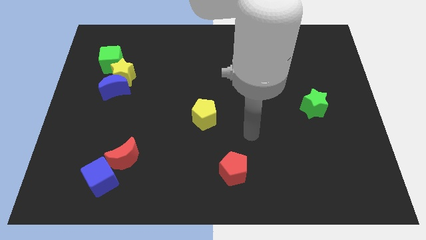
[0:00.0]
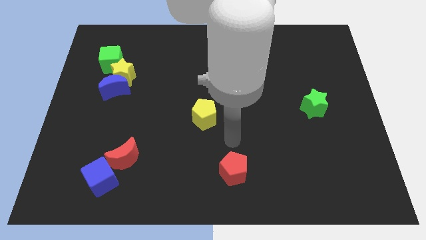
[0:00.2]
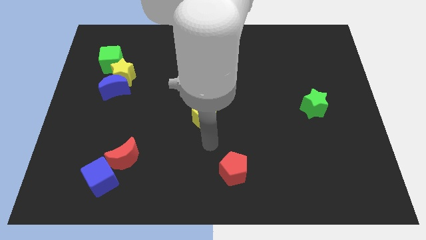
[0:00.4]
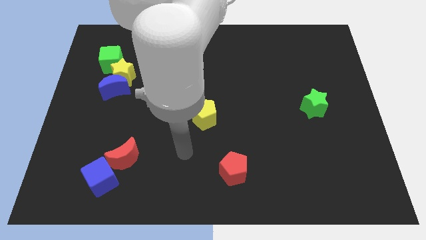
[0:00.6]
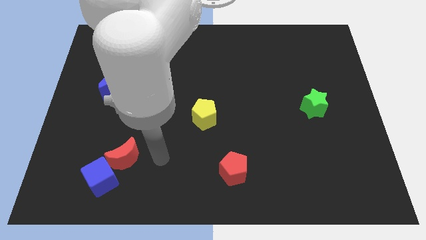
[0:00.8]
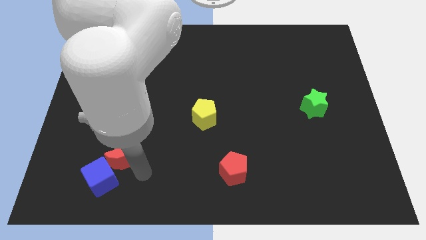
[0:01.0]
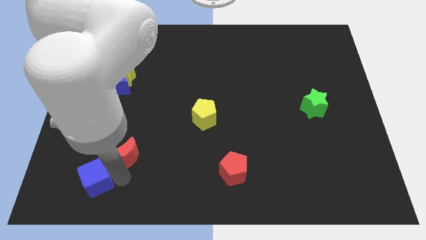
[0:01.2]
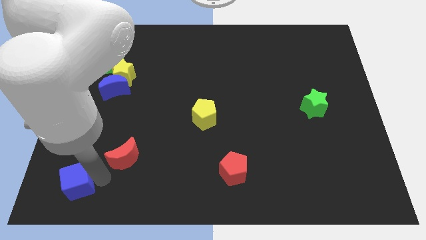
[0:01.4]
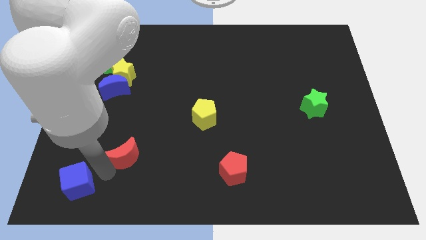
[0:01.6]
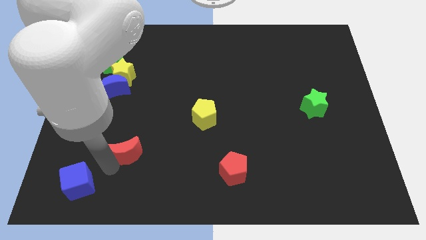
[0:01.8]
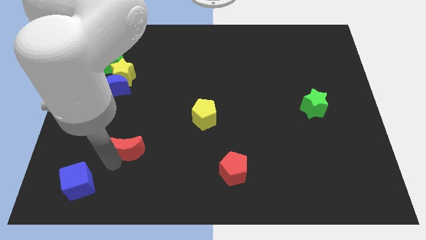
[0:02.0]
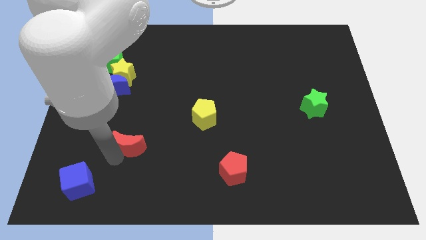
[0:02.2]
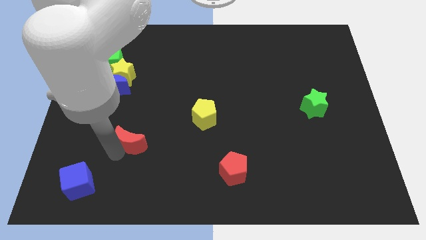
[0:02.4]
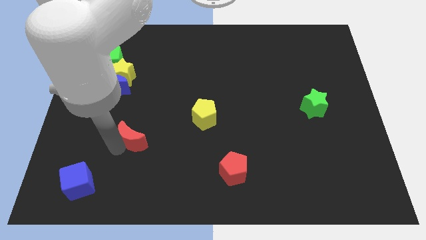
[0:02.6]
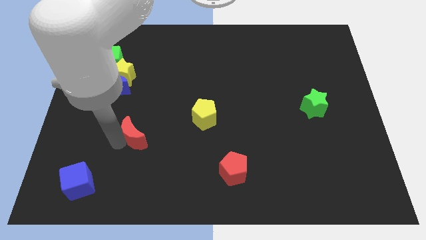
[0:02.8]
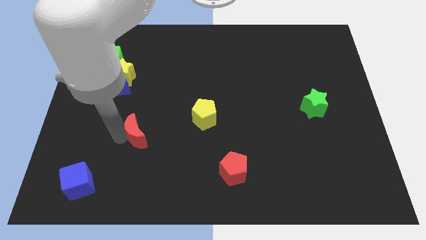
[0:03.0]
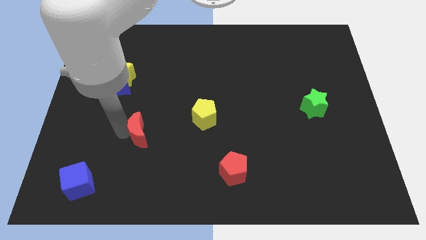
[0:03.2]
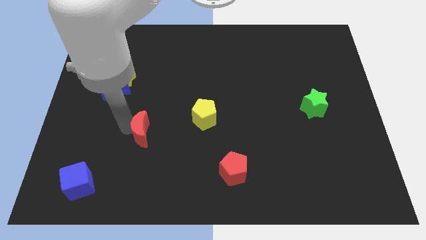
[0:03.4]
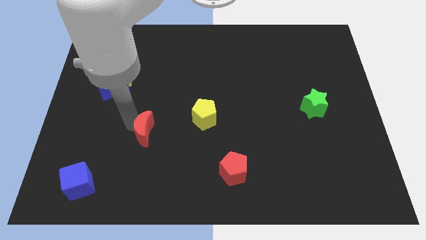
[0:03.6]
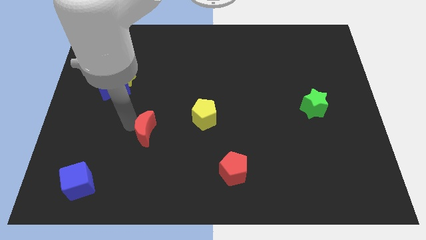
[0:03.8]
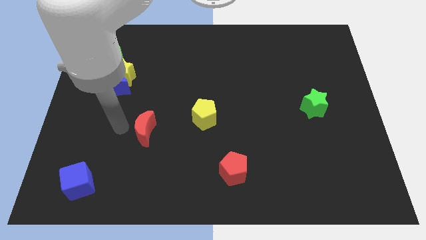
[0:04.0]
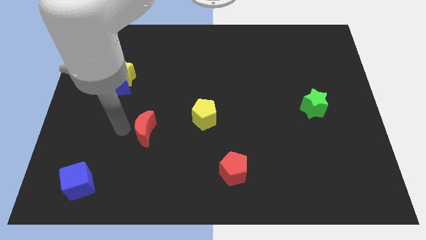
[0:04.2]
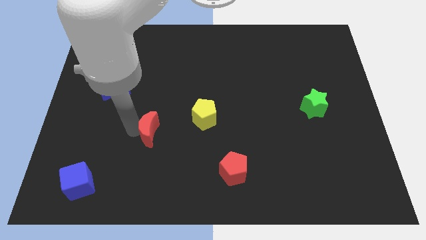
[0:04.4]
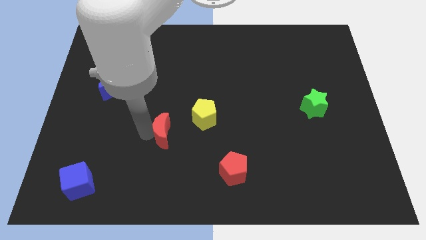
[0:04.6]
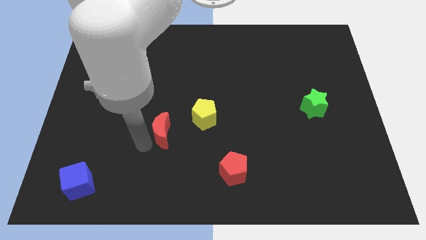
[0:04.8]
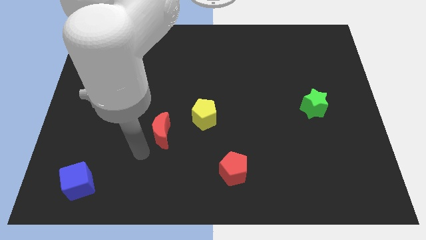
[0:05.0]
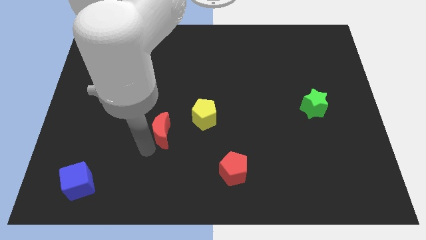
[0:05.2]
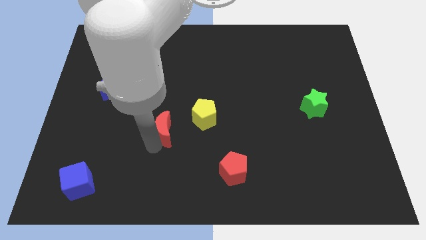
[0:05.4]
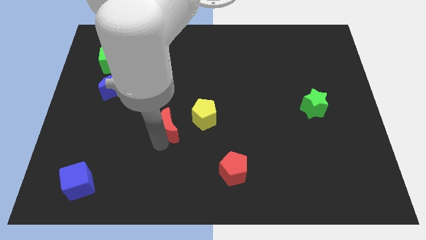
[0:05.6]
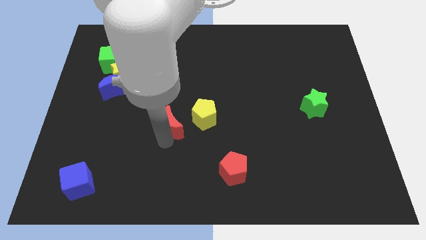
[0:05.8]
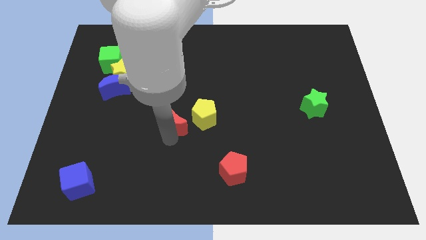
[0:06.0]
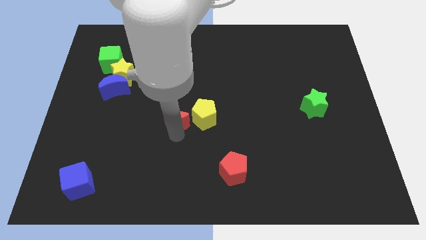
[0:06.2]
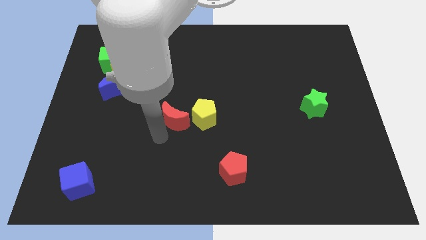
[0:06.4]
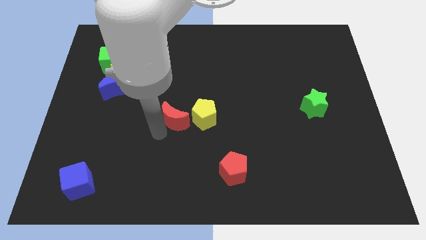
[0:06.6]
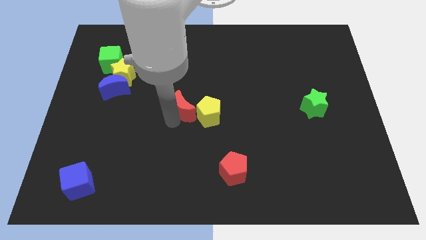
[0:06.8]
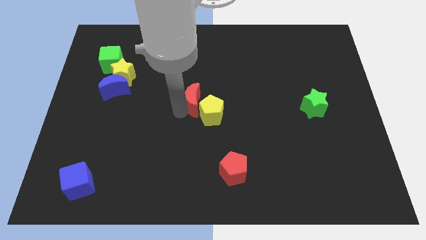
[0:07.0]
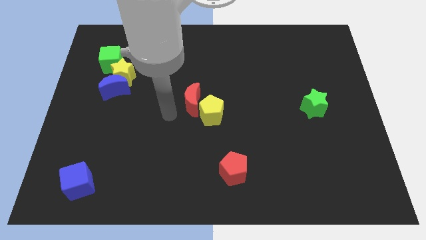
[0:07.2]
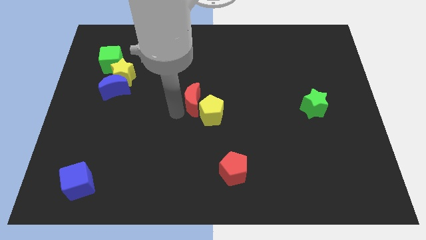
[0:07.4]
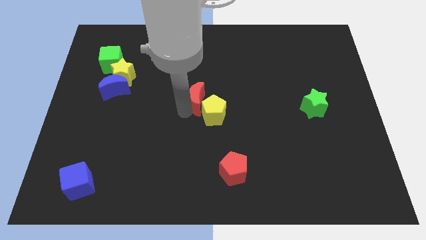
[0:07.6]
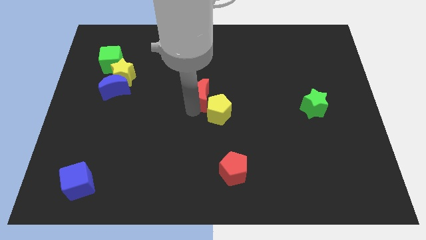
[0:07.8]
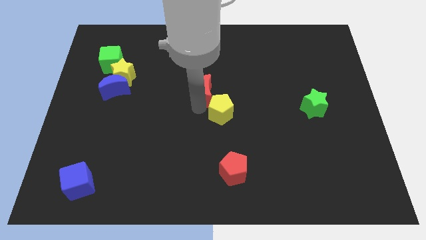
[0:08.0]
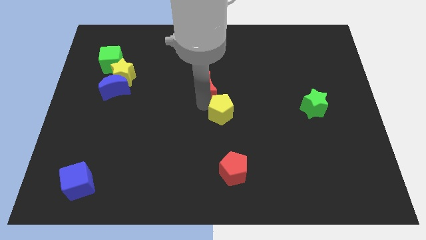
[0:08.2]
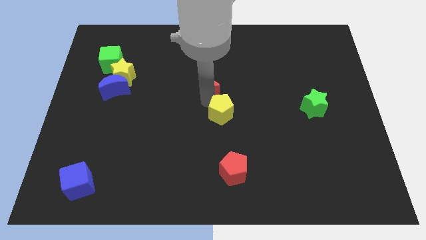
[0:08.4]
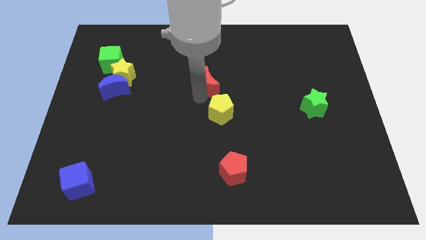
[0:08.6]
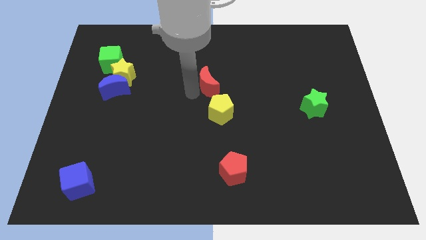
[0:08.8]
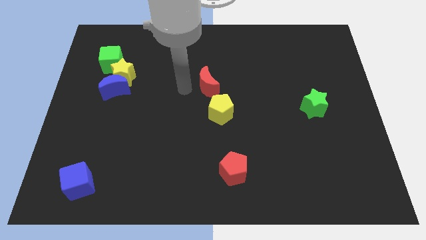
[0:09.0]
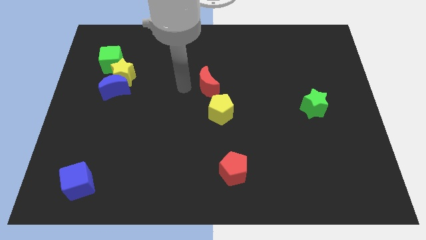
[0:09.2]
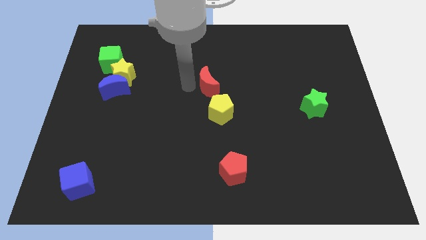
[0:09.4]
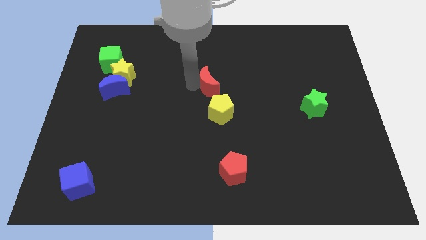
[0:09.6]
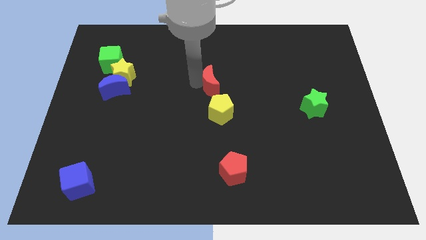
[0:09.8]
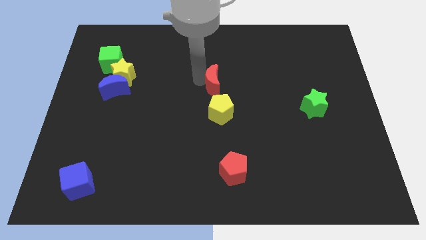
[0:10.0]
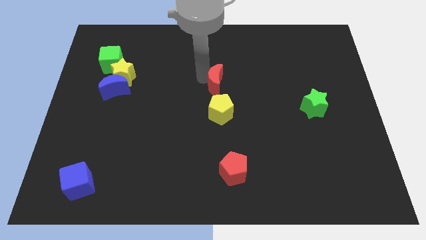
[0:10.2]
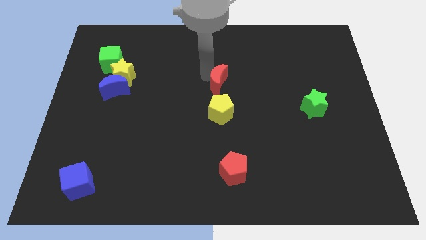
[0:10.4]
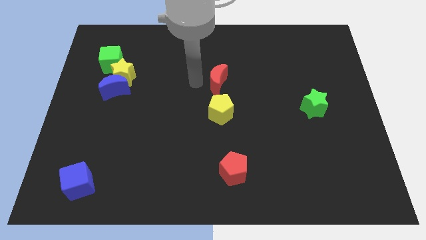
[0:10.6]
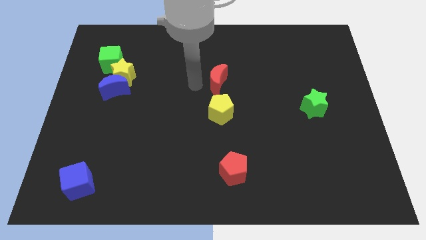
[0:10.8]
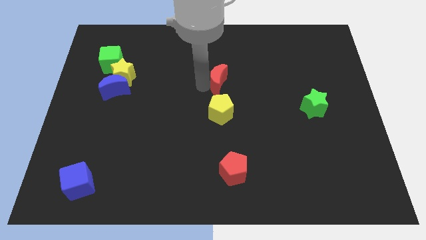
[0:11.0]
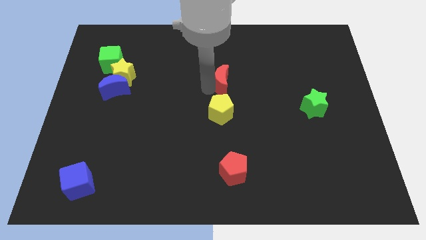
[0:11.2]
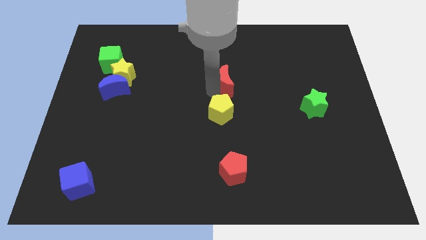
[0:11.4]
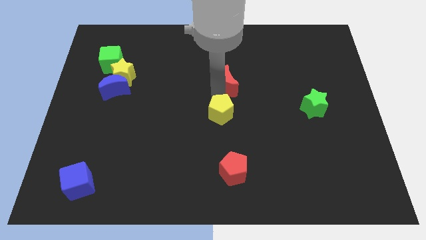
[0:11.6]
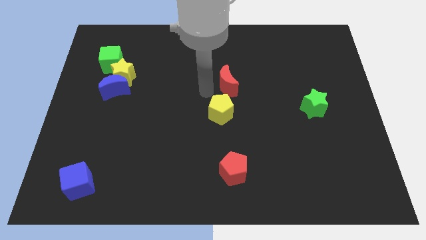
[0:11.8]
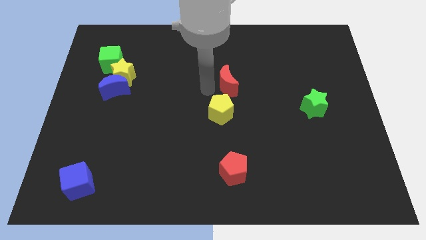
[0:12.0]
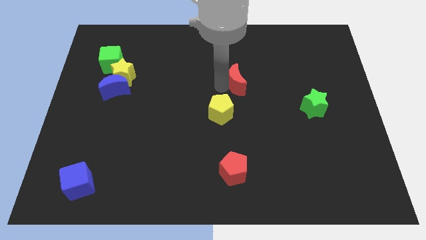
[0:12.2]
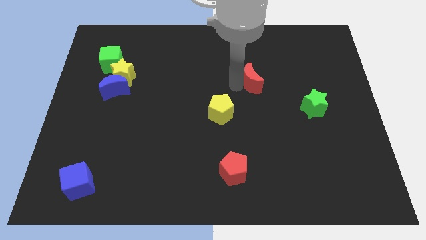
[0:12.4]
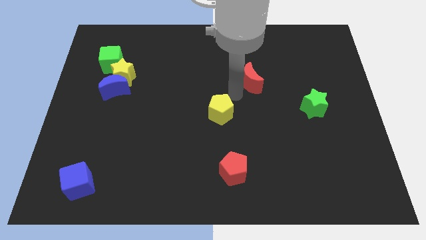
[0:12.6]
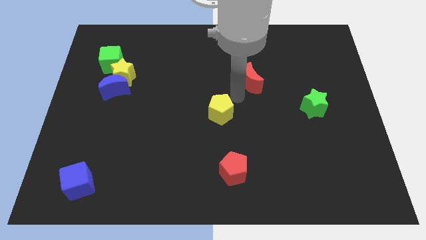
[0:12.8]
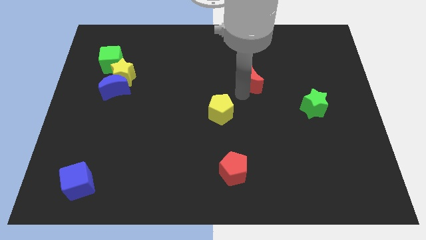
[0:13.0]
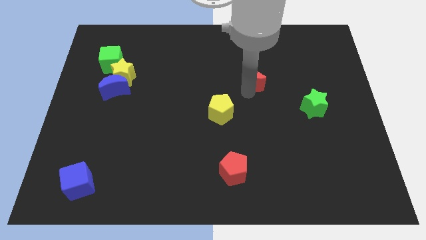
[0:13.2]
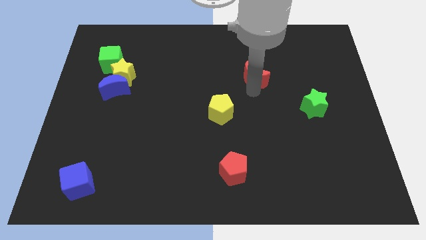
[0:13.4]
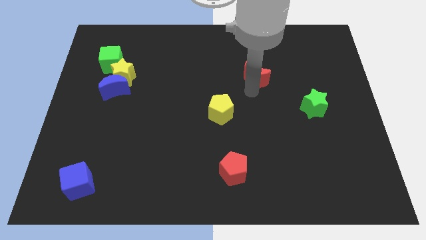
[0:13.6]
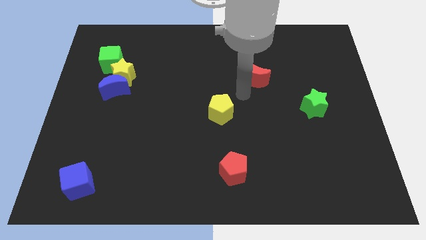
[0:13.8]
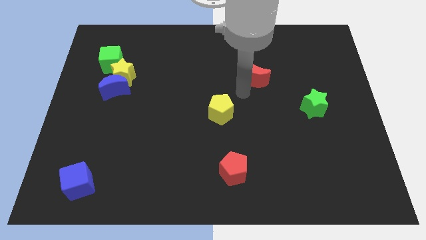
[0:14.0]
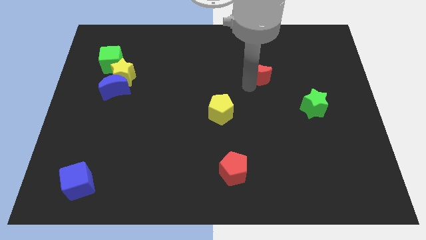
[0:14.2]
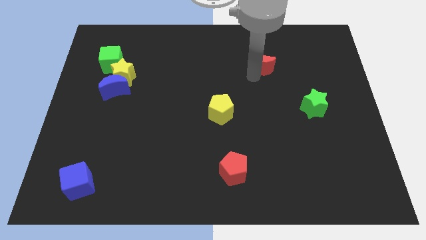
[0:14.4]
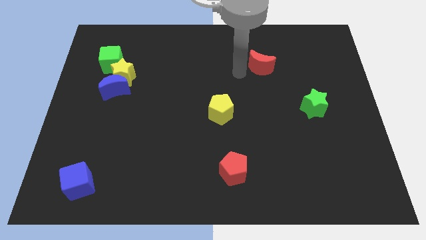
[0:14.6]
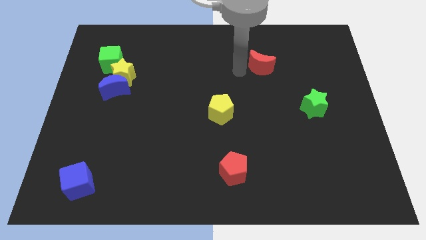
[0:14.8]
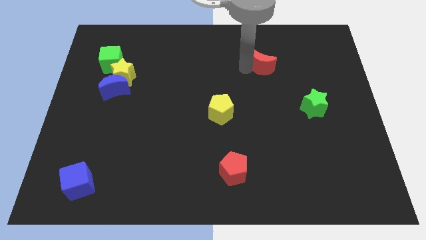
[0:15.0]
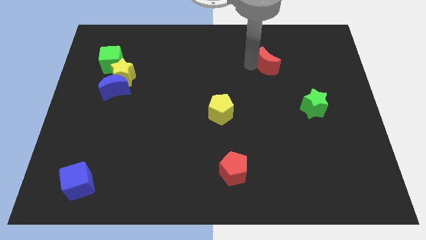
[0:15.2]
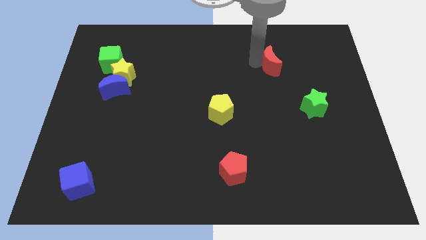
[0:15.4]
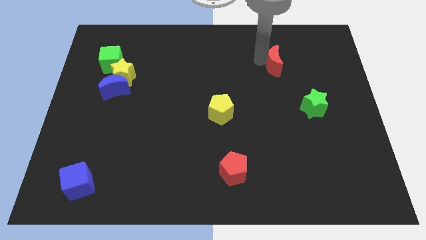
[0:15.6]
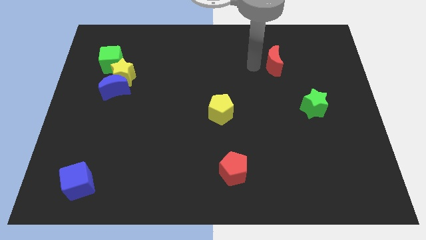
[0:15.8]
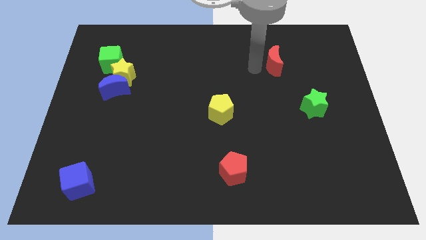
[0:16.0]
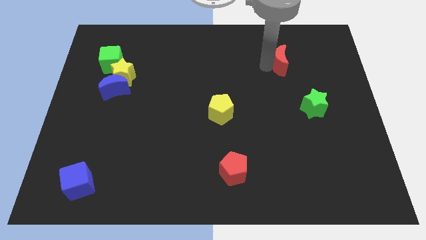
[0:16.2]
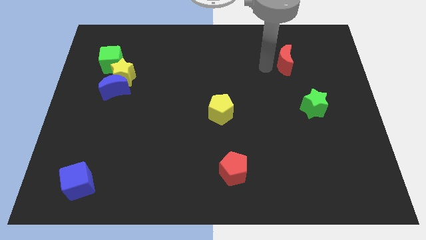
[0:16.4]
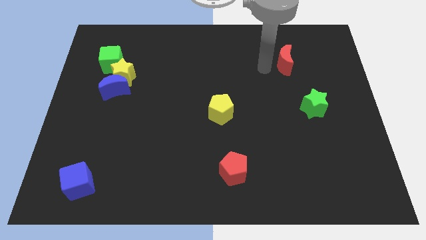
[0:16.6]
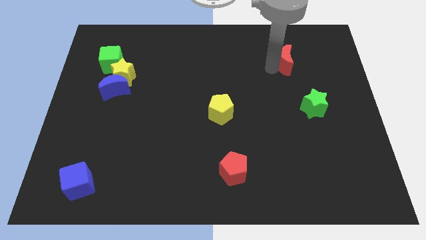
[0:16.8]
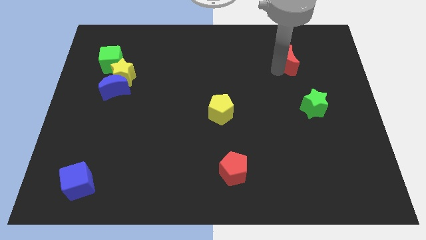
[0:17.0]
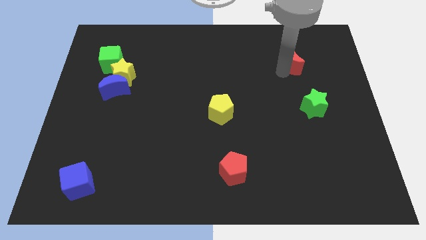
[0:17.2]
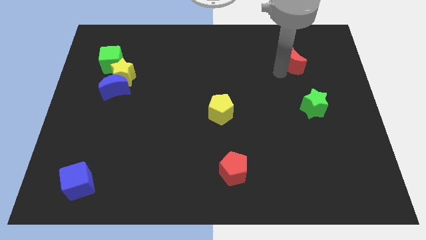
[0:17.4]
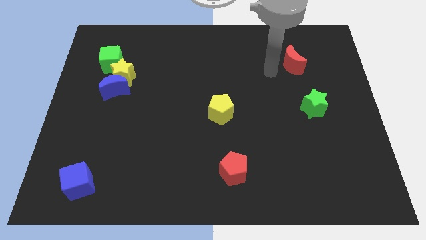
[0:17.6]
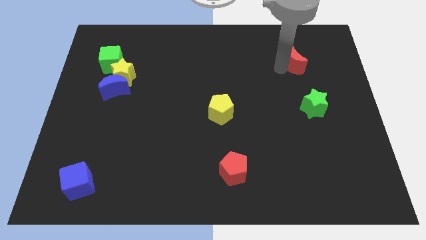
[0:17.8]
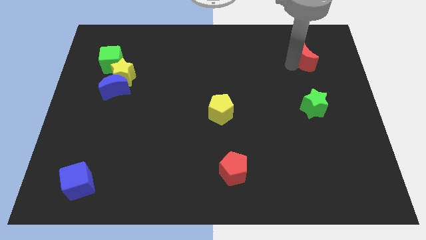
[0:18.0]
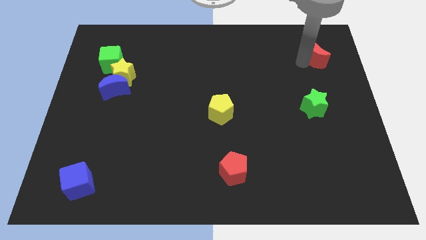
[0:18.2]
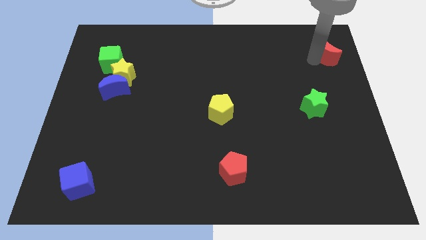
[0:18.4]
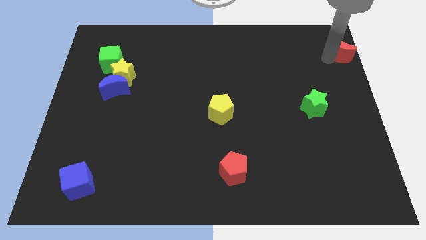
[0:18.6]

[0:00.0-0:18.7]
push the red moon to the upper right corner
